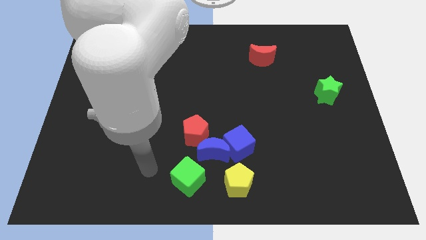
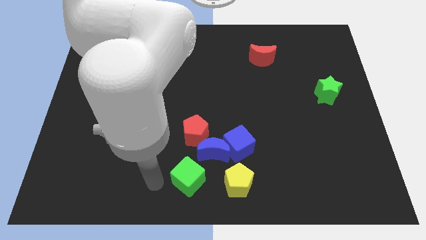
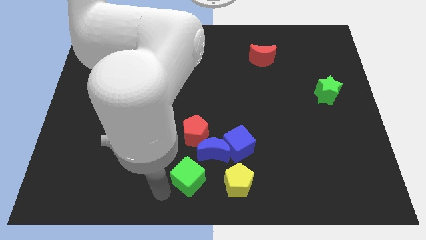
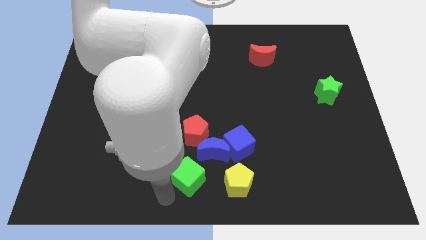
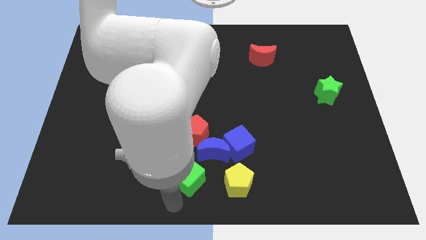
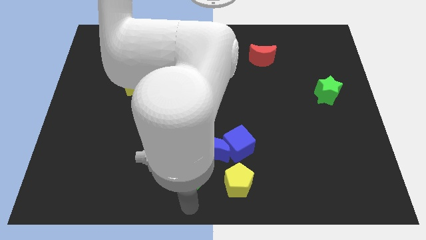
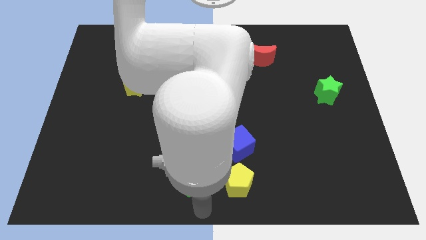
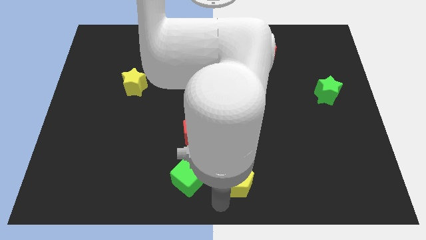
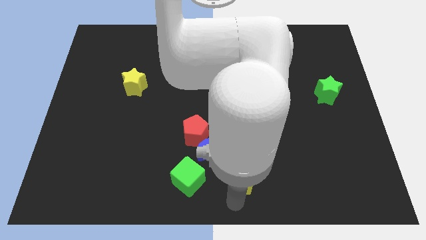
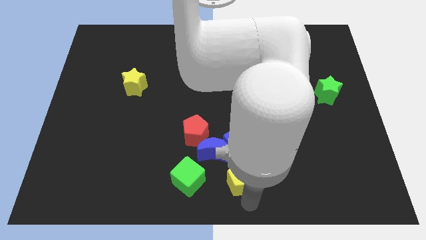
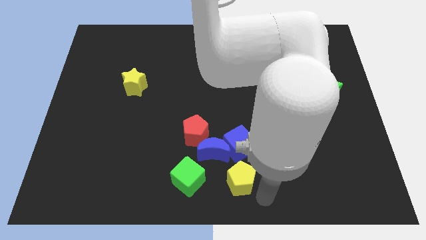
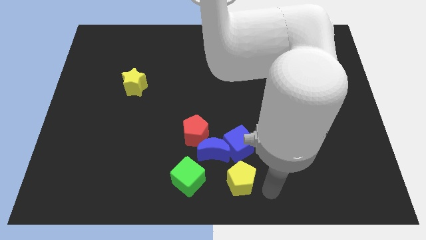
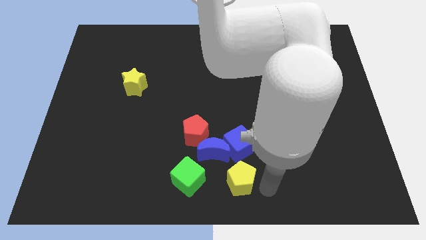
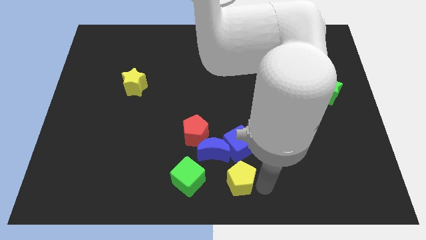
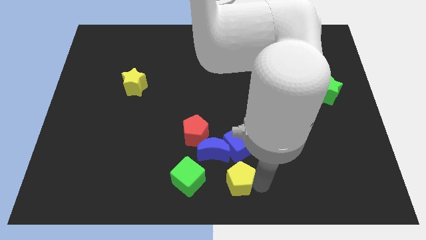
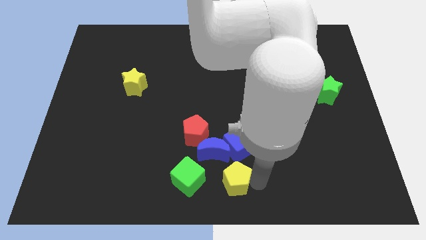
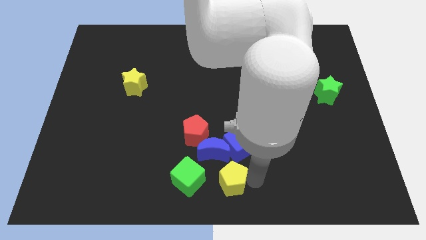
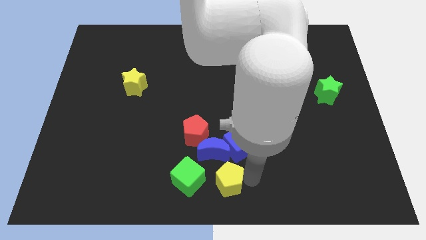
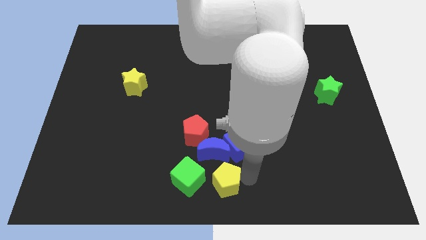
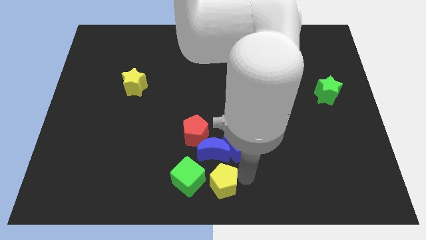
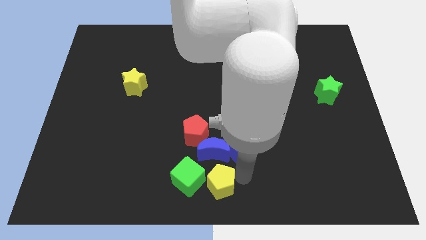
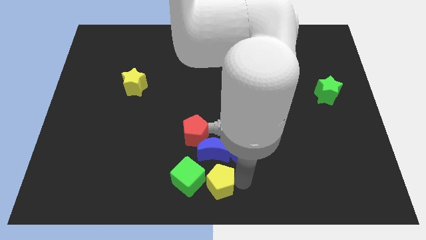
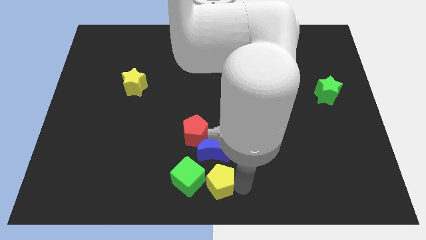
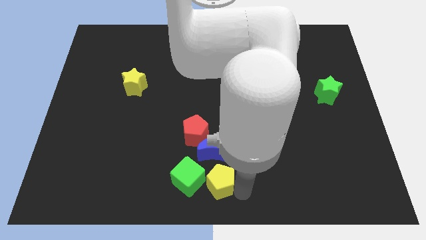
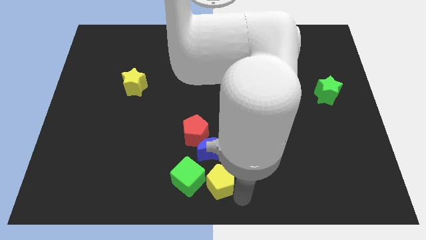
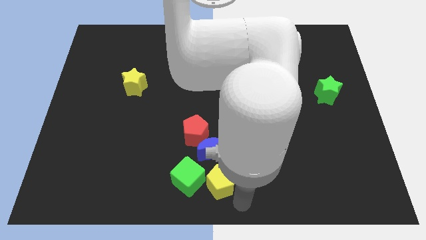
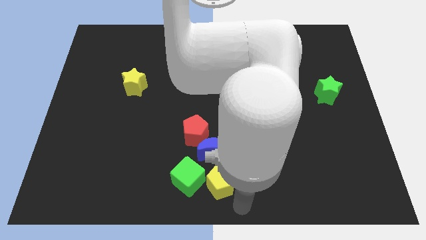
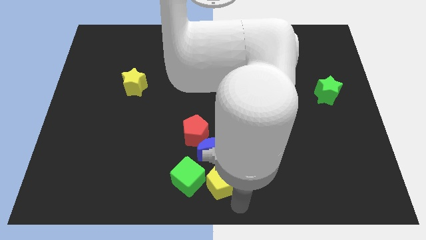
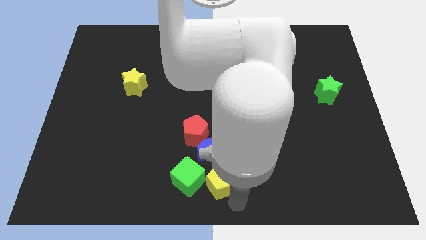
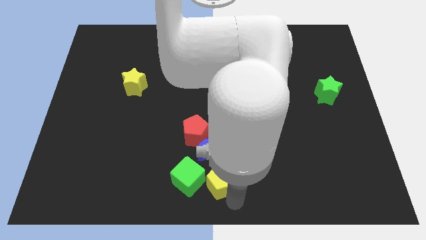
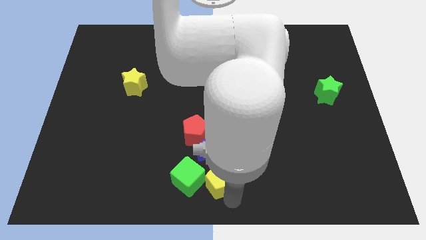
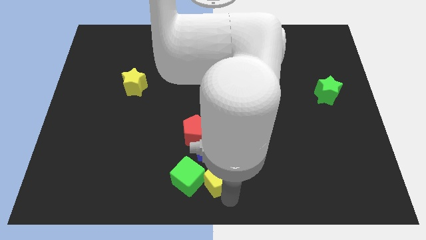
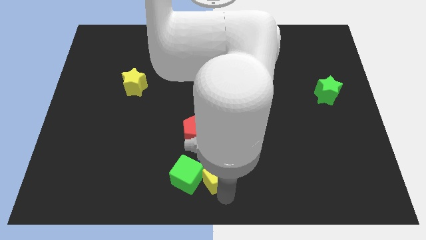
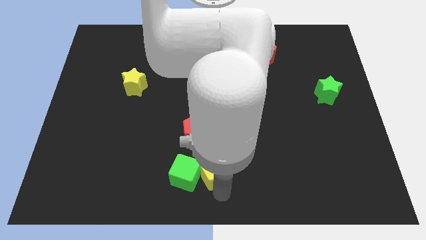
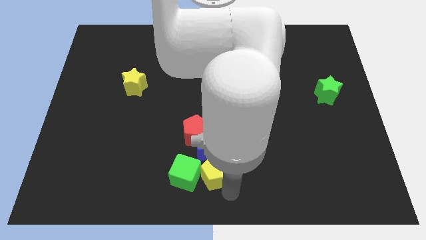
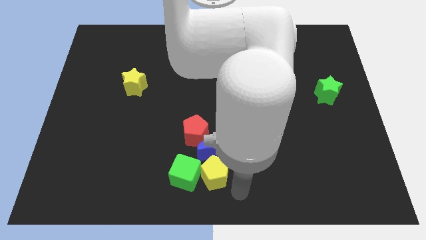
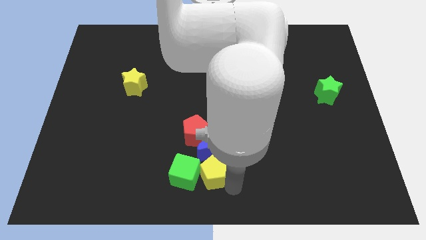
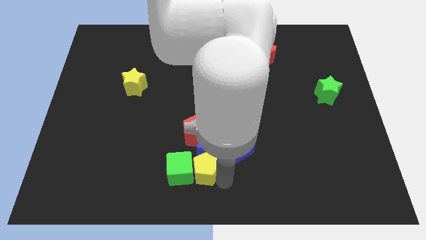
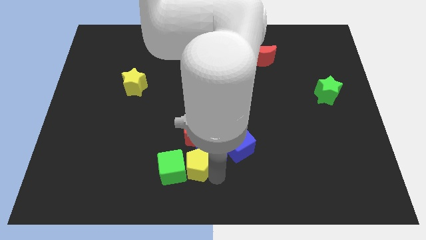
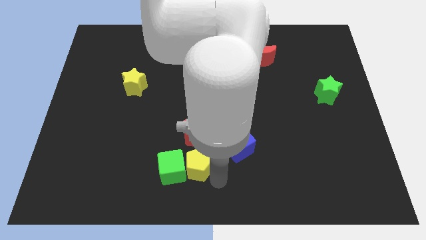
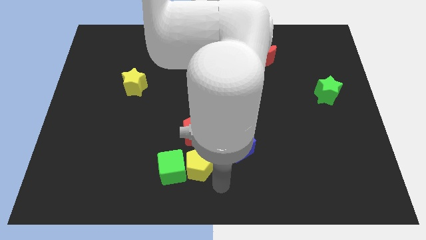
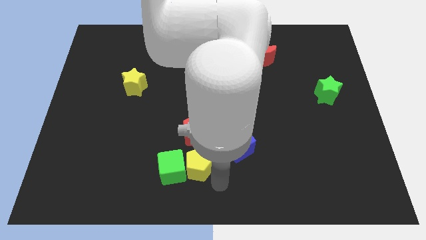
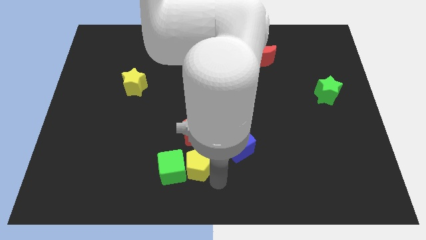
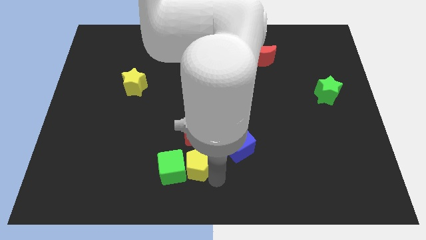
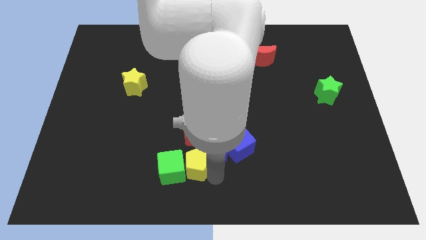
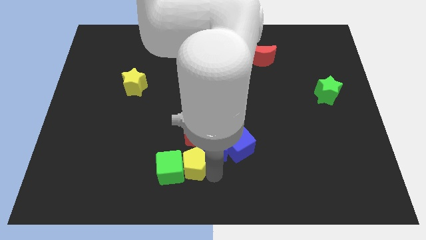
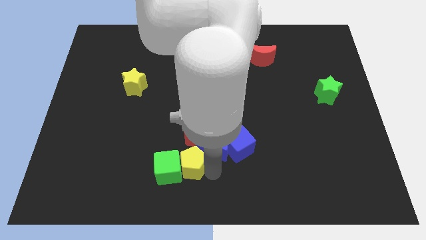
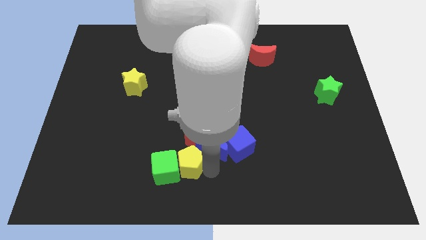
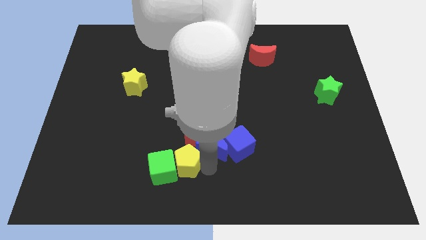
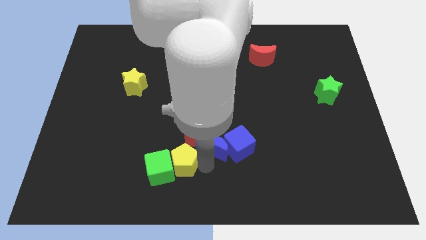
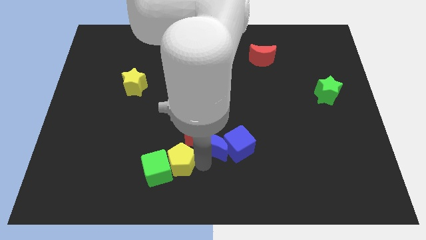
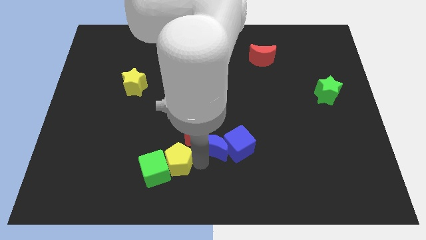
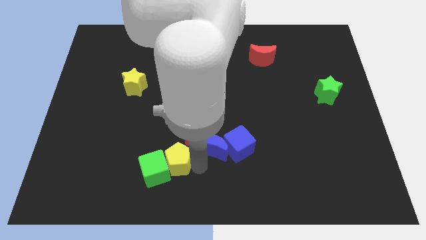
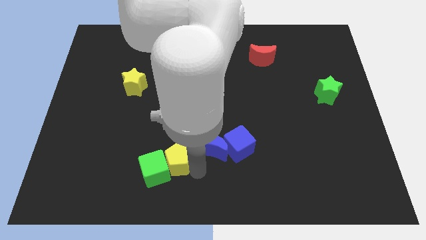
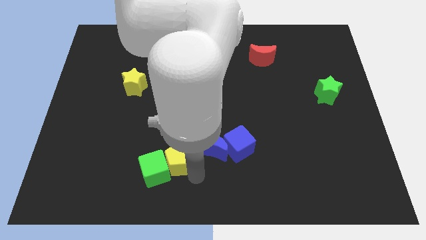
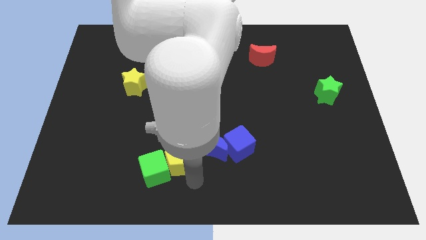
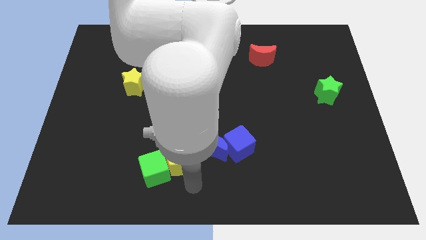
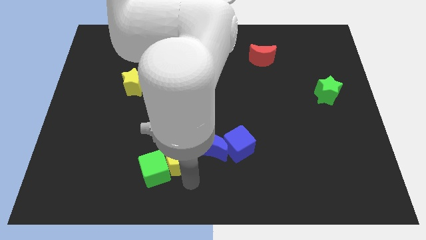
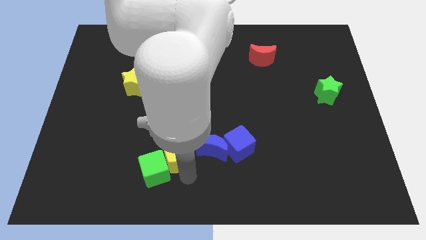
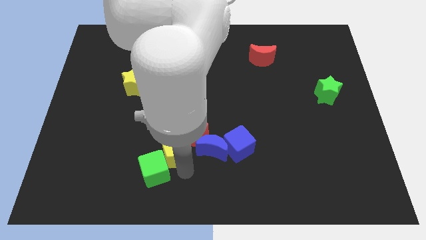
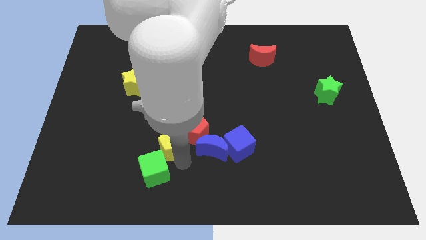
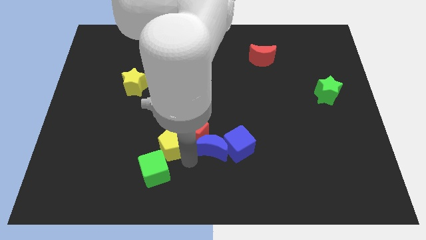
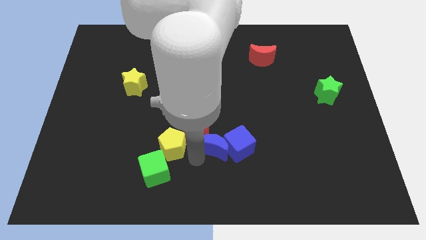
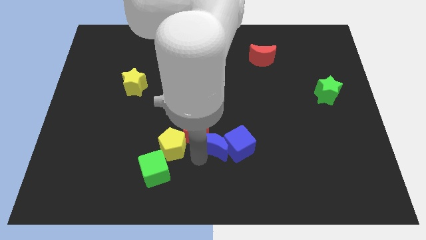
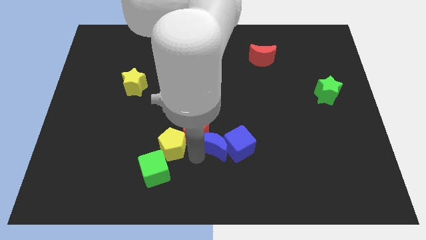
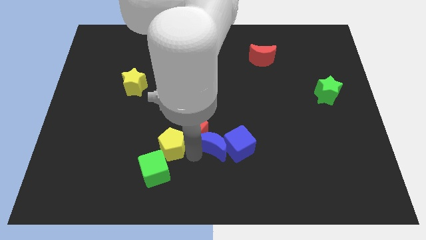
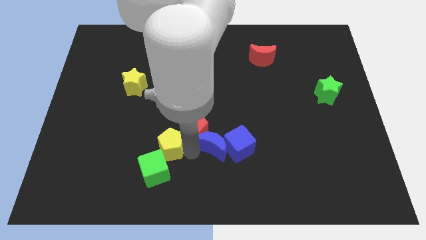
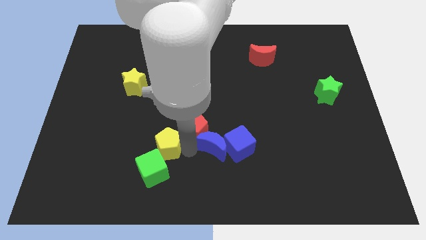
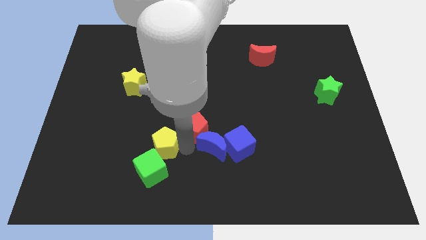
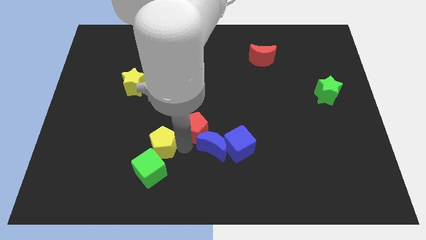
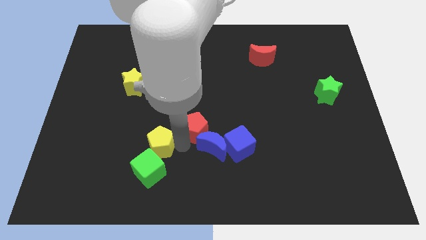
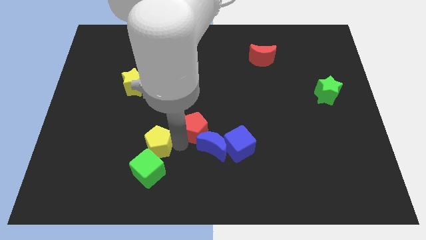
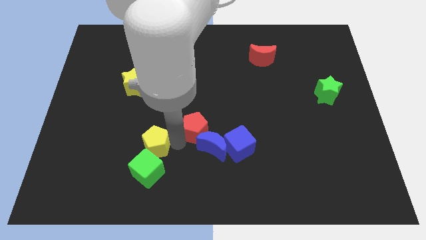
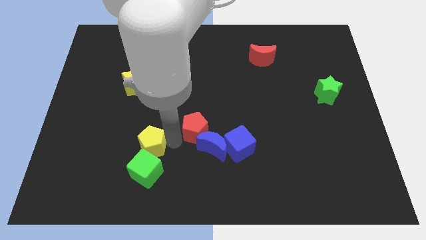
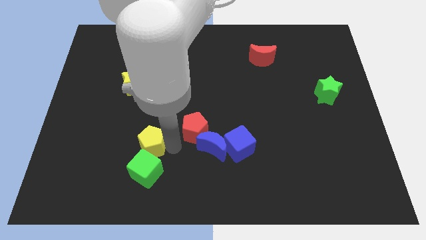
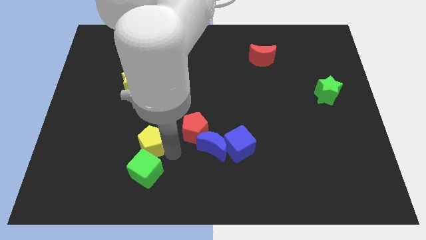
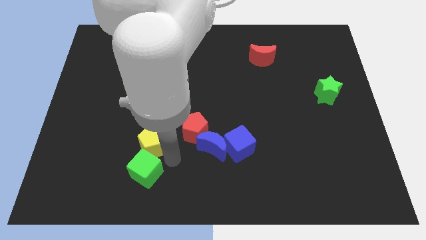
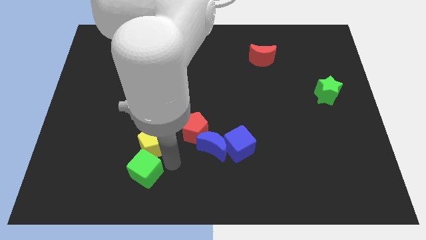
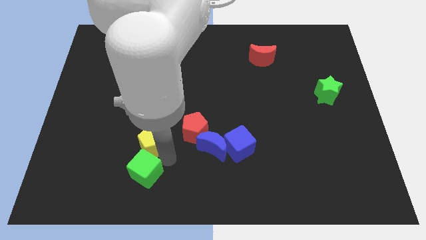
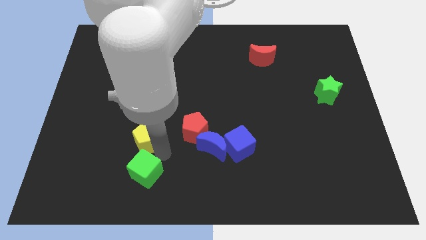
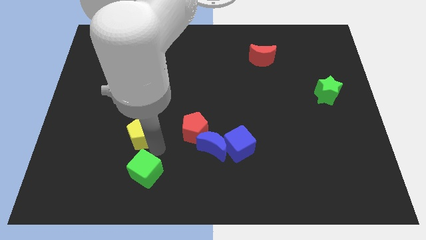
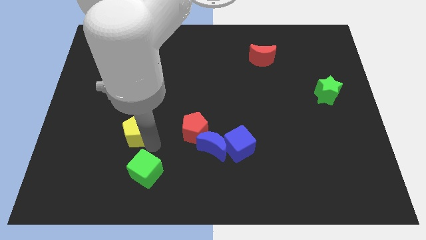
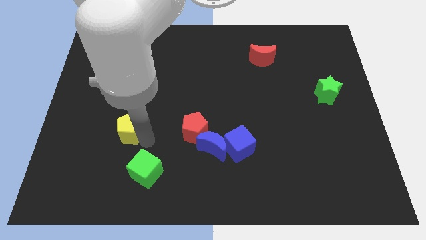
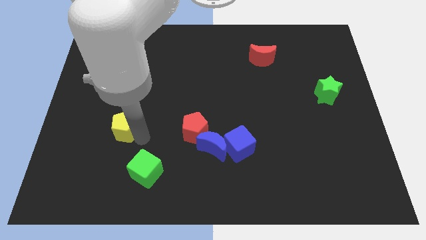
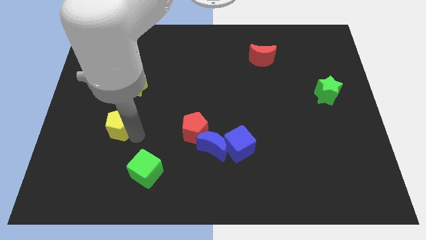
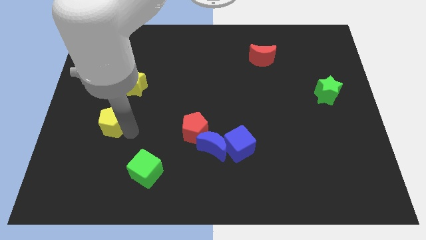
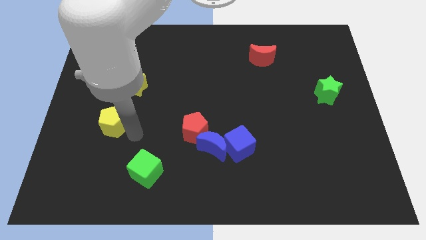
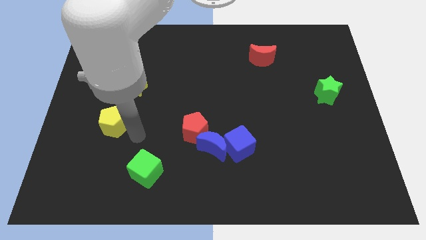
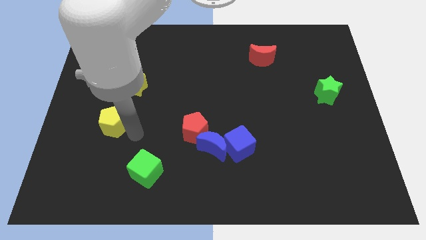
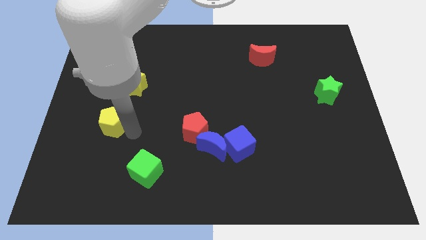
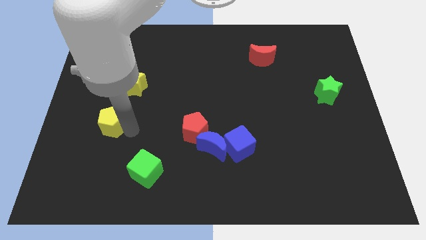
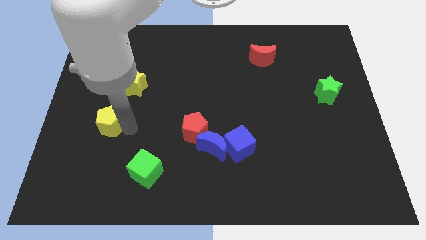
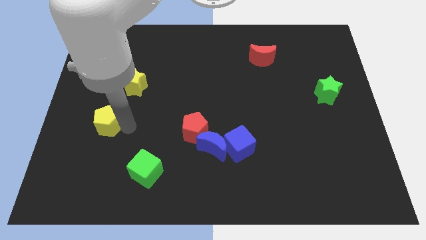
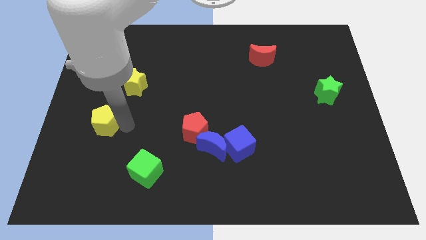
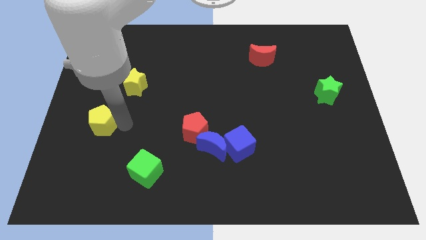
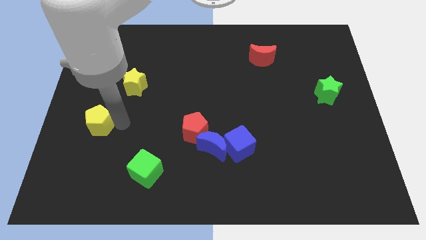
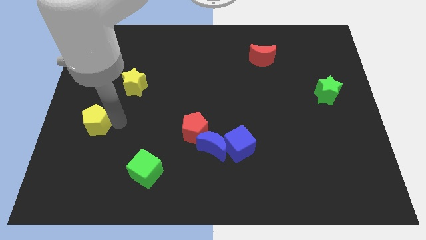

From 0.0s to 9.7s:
move the yellow pentagon to the left side of the board
